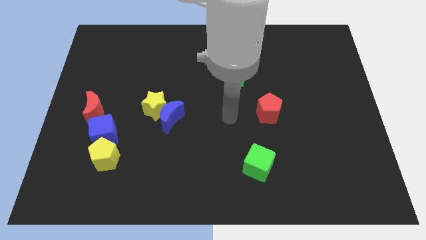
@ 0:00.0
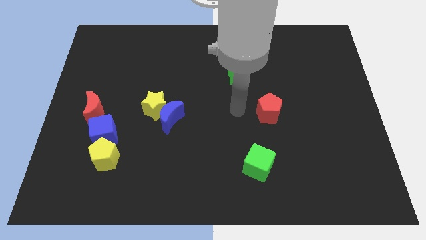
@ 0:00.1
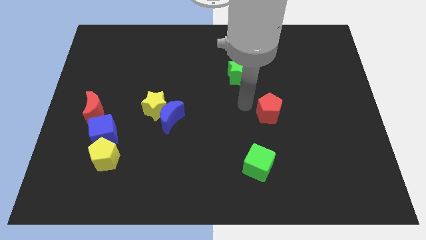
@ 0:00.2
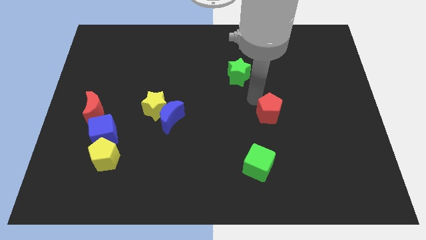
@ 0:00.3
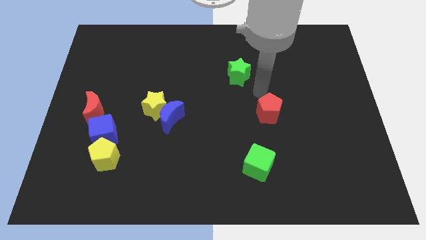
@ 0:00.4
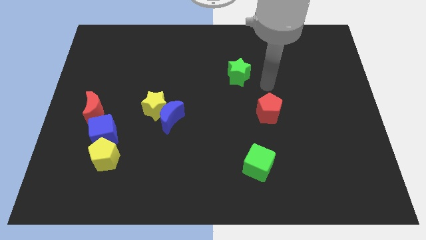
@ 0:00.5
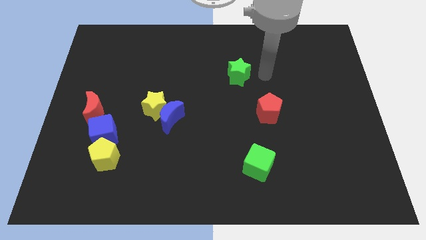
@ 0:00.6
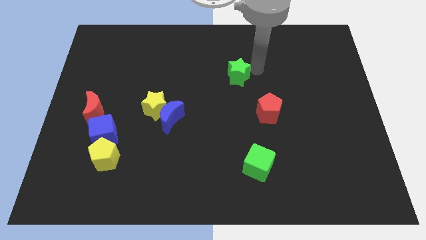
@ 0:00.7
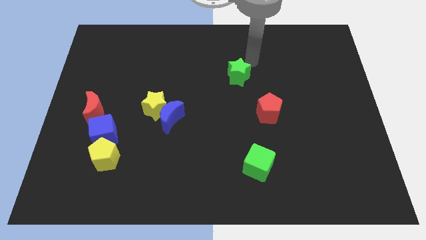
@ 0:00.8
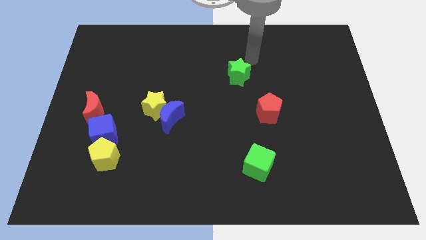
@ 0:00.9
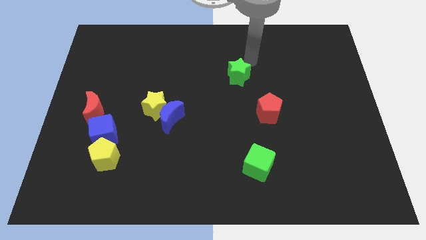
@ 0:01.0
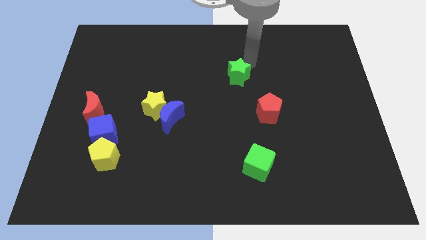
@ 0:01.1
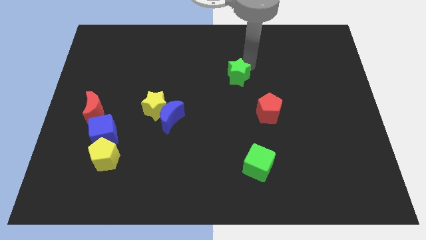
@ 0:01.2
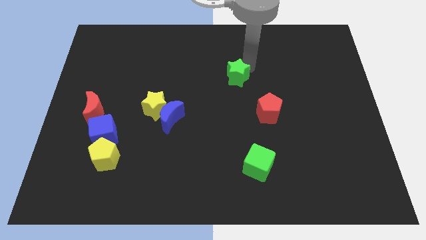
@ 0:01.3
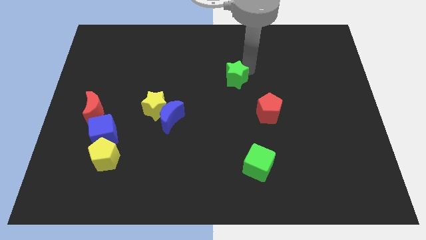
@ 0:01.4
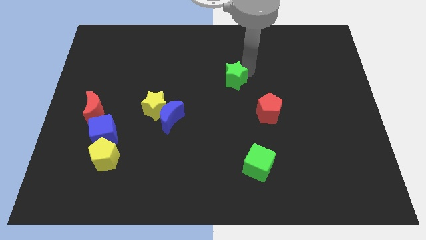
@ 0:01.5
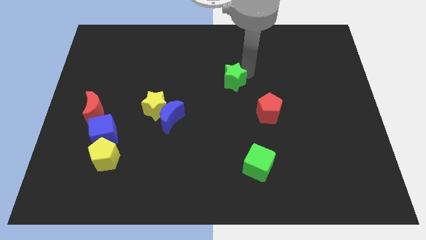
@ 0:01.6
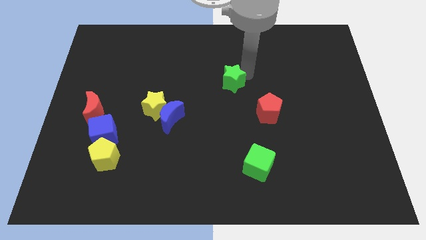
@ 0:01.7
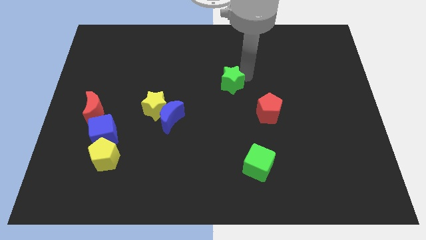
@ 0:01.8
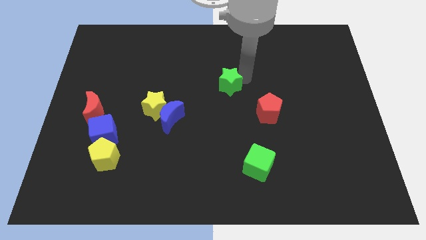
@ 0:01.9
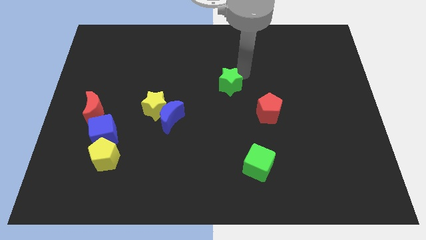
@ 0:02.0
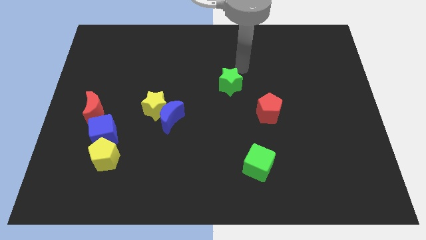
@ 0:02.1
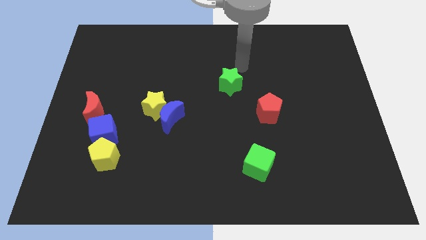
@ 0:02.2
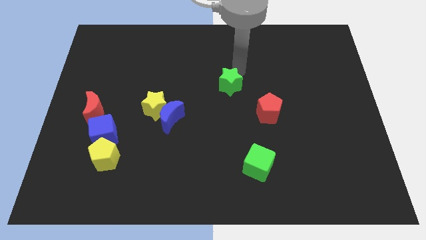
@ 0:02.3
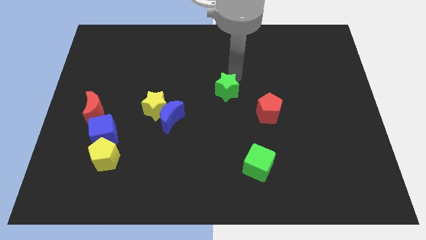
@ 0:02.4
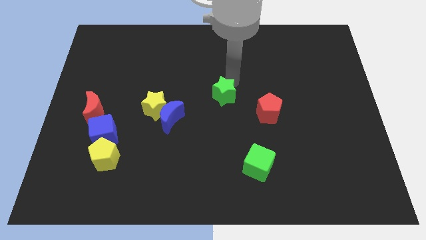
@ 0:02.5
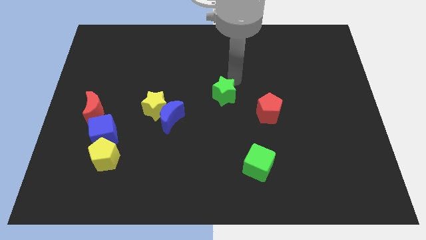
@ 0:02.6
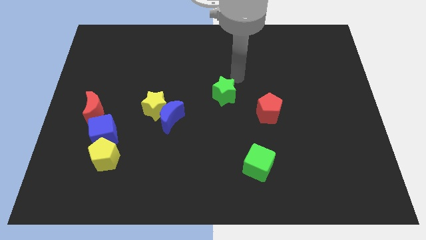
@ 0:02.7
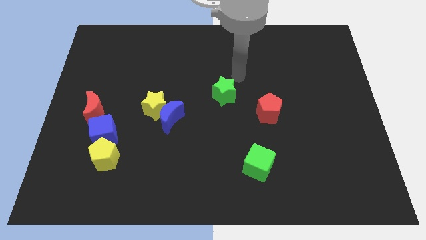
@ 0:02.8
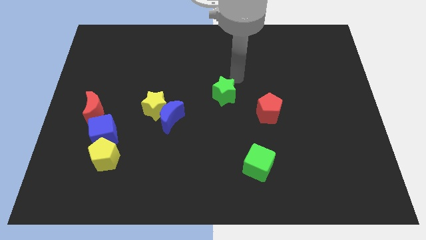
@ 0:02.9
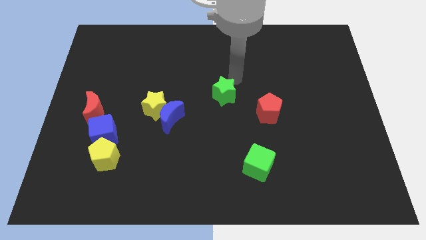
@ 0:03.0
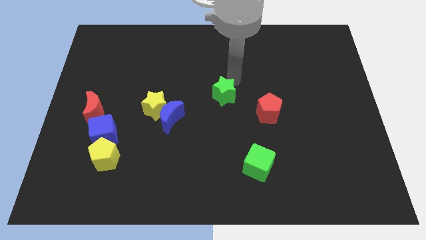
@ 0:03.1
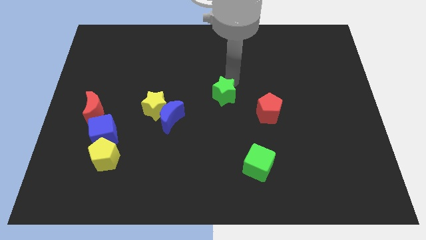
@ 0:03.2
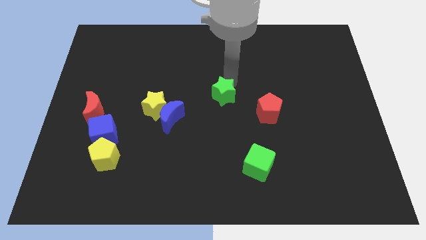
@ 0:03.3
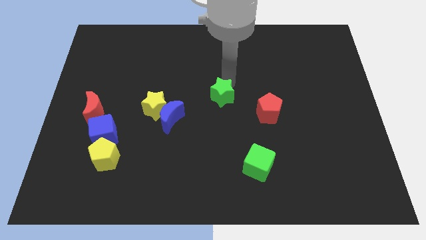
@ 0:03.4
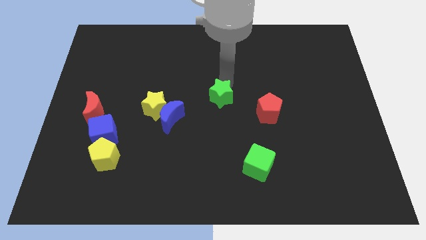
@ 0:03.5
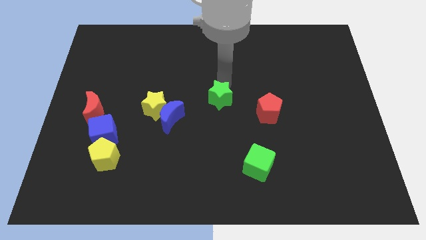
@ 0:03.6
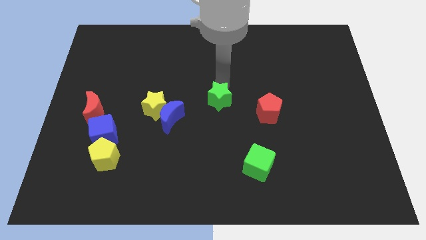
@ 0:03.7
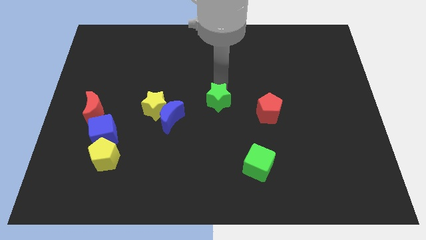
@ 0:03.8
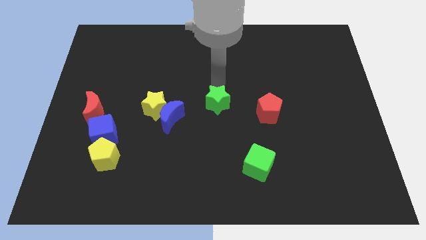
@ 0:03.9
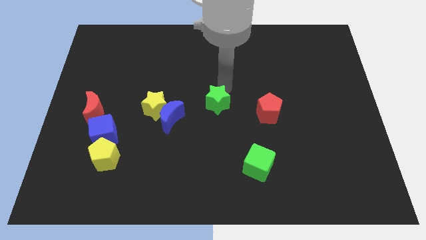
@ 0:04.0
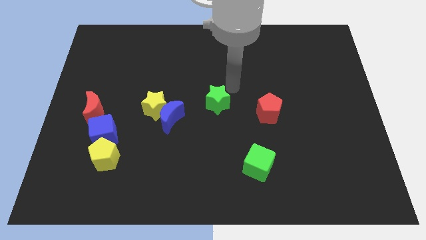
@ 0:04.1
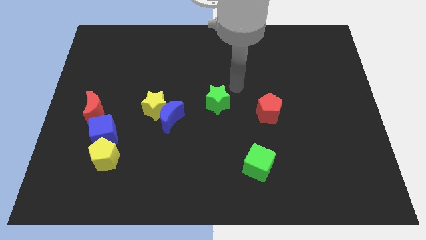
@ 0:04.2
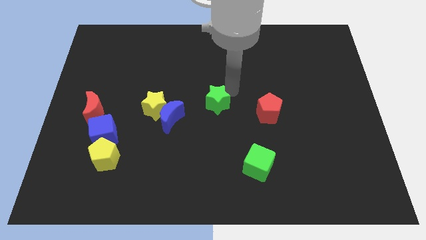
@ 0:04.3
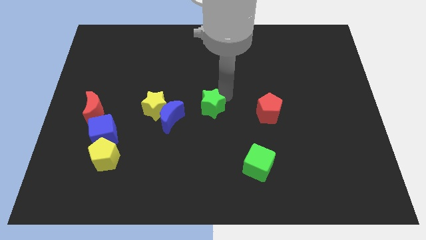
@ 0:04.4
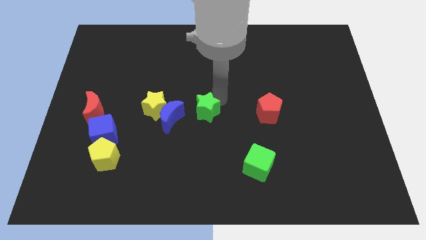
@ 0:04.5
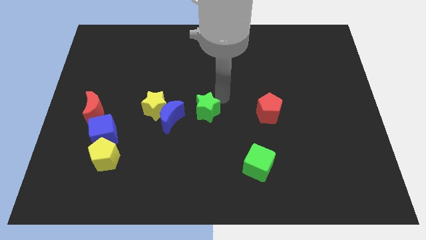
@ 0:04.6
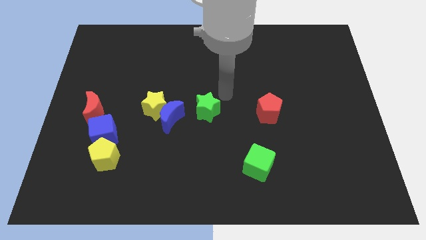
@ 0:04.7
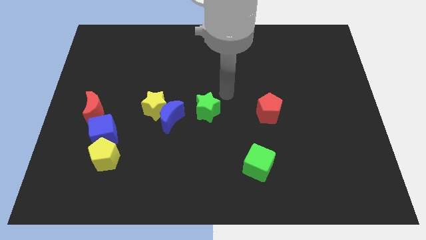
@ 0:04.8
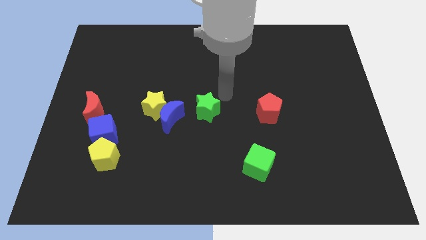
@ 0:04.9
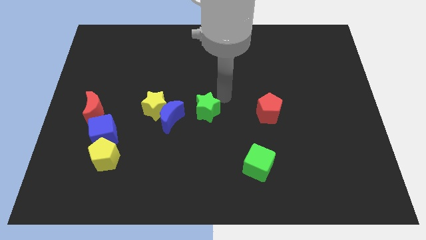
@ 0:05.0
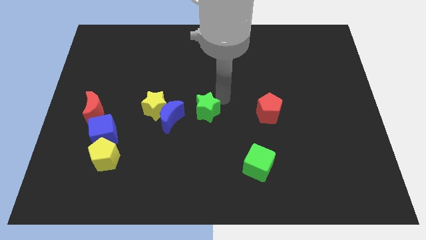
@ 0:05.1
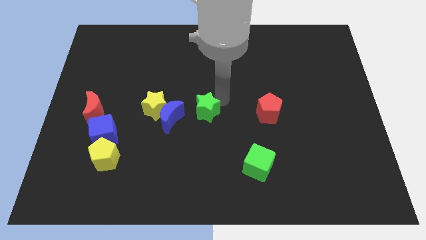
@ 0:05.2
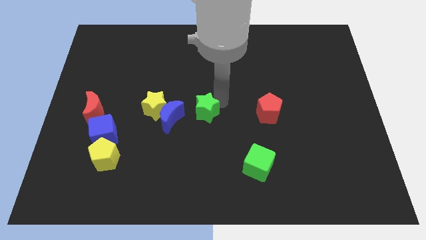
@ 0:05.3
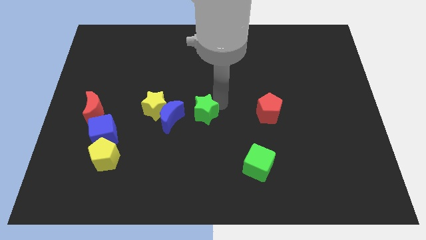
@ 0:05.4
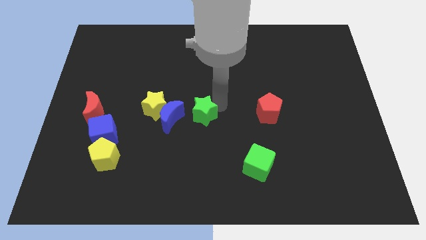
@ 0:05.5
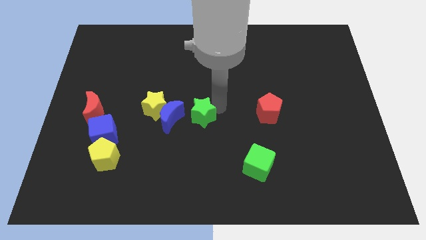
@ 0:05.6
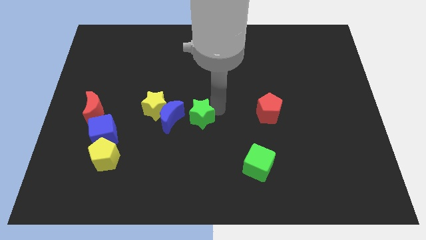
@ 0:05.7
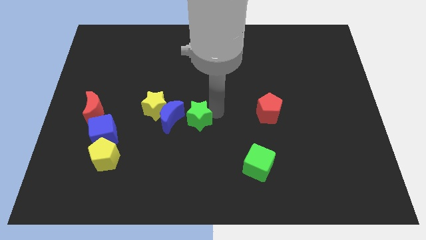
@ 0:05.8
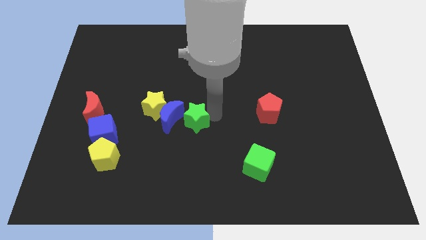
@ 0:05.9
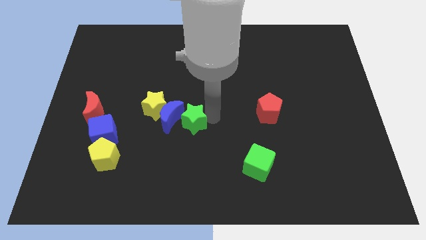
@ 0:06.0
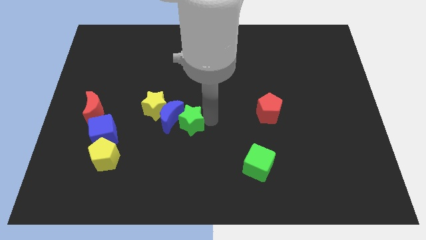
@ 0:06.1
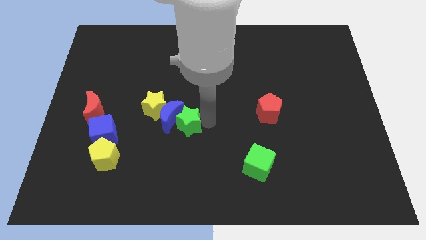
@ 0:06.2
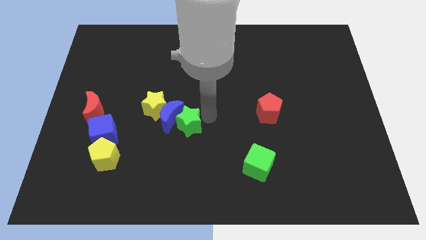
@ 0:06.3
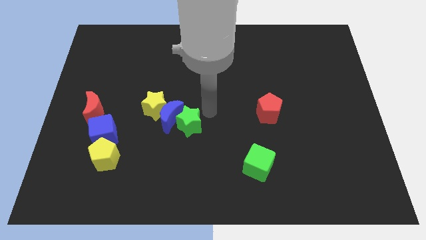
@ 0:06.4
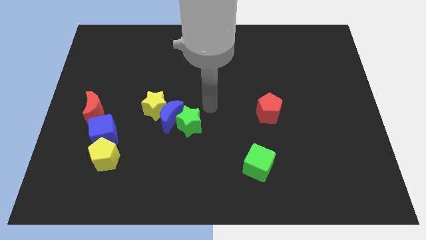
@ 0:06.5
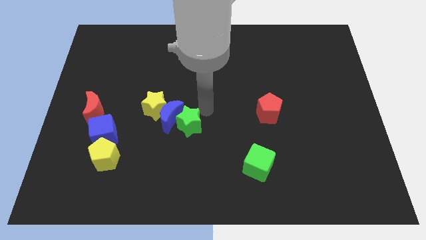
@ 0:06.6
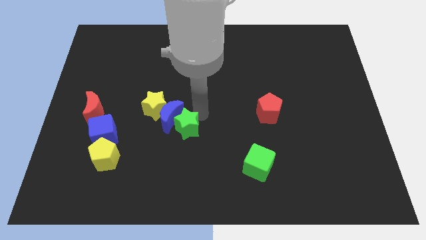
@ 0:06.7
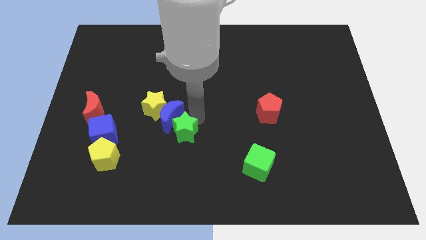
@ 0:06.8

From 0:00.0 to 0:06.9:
push the green star downwards and left diagonally

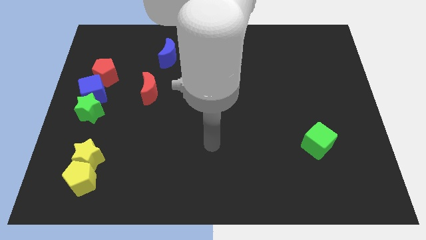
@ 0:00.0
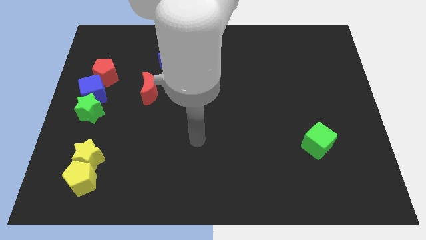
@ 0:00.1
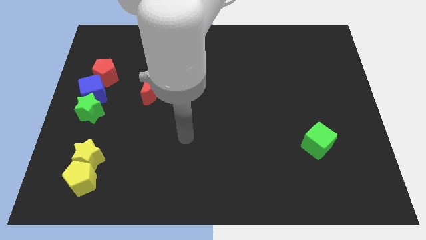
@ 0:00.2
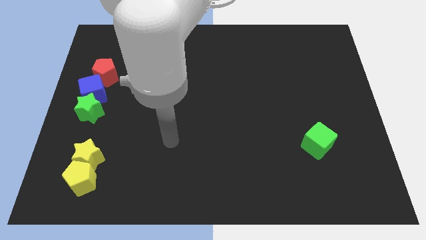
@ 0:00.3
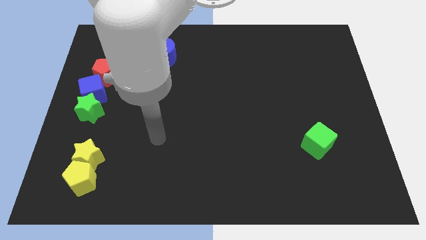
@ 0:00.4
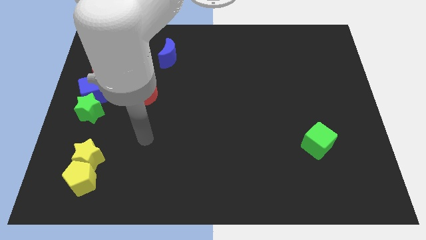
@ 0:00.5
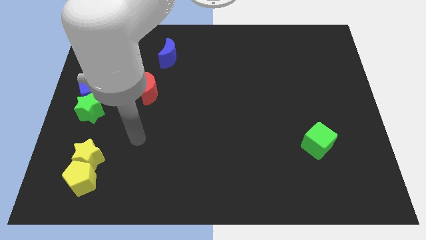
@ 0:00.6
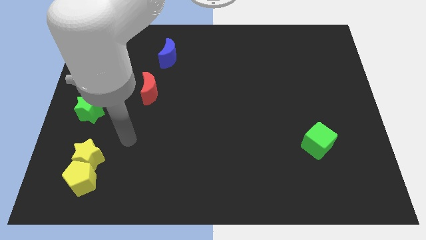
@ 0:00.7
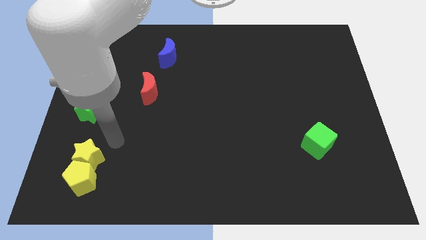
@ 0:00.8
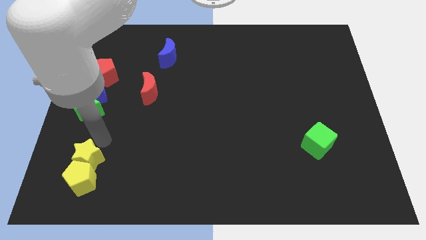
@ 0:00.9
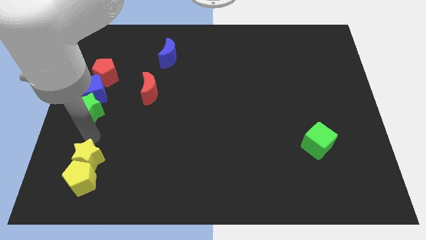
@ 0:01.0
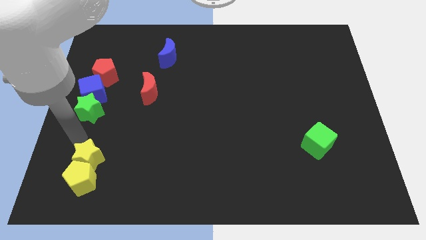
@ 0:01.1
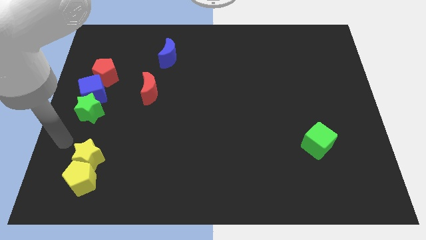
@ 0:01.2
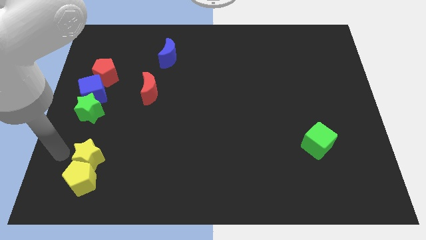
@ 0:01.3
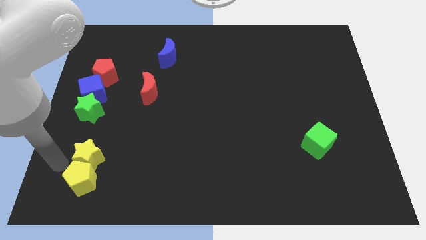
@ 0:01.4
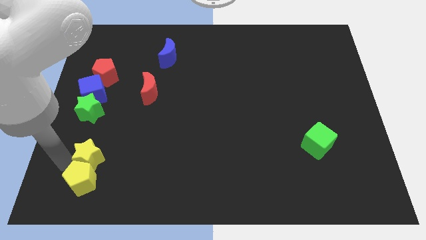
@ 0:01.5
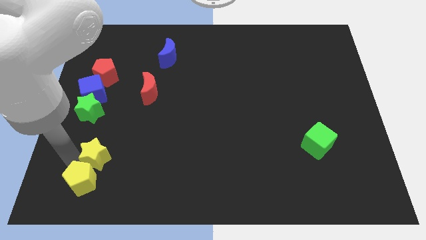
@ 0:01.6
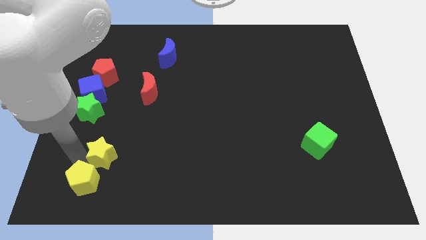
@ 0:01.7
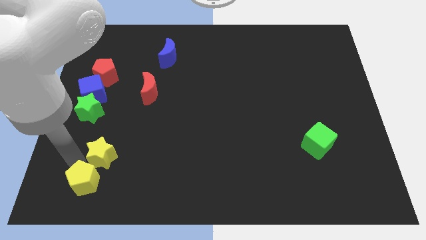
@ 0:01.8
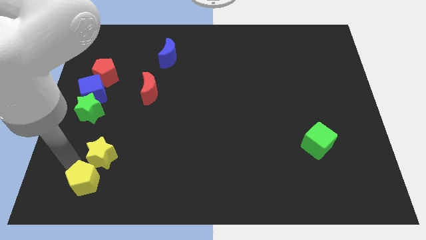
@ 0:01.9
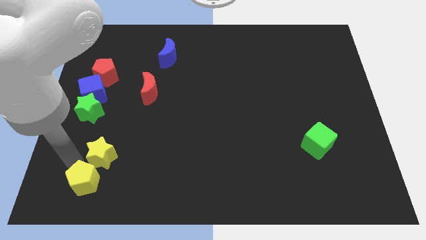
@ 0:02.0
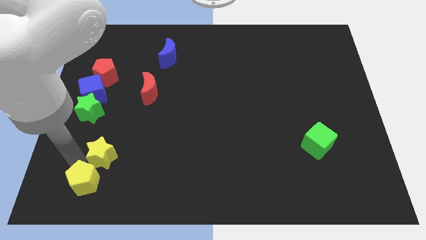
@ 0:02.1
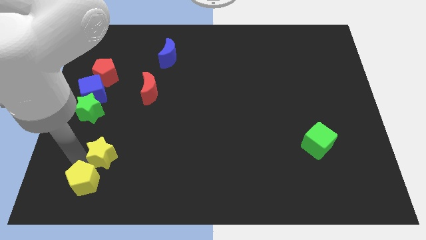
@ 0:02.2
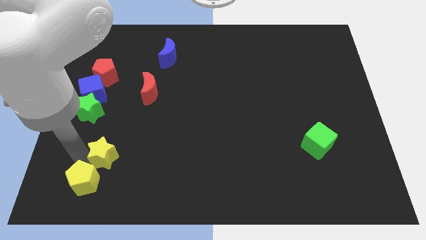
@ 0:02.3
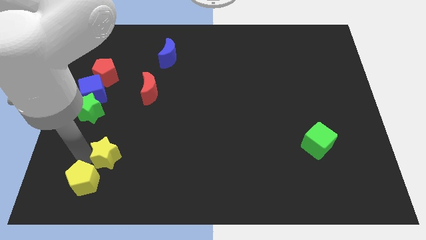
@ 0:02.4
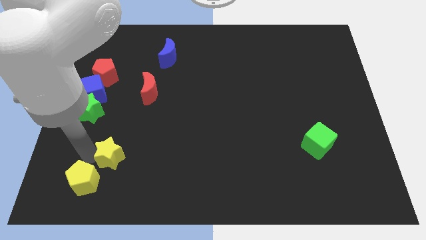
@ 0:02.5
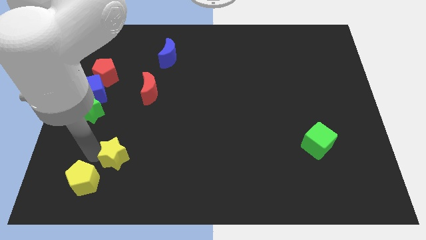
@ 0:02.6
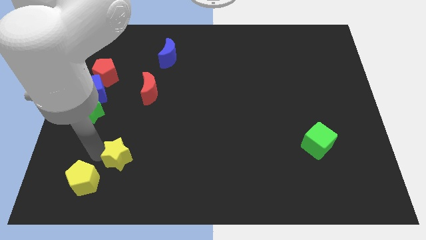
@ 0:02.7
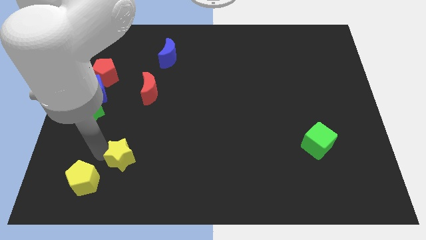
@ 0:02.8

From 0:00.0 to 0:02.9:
move the yellow star right a little
